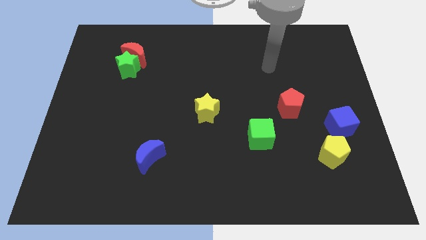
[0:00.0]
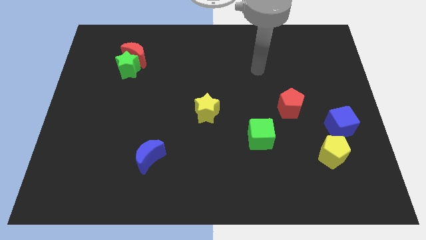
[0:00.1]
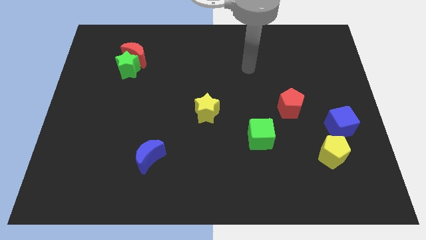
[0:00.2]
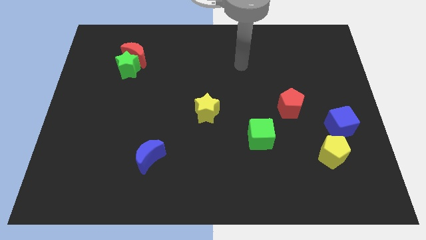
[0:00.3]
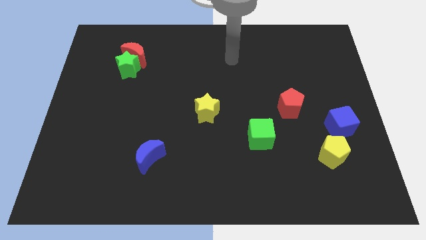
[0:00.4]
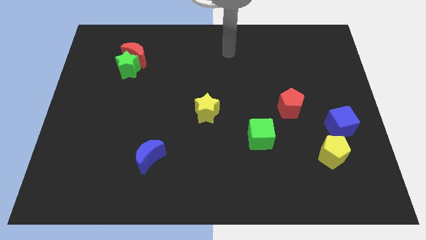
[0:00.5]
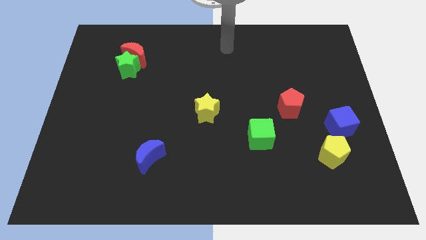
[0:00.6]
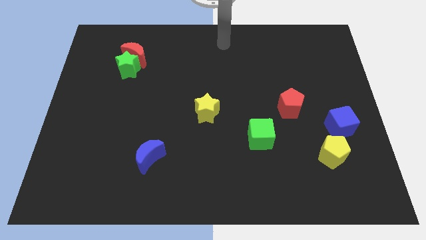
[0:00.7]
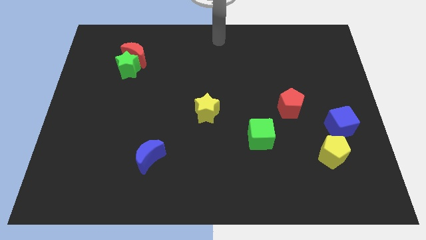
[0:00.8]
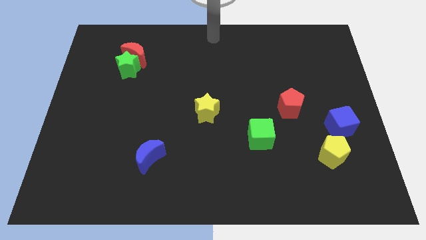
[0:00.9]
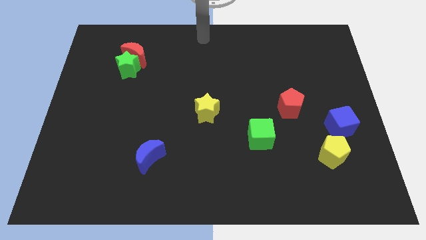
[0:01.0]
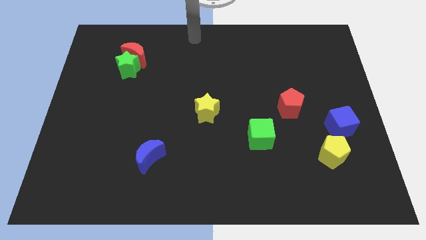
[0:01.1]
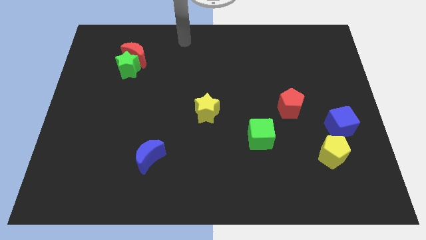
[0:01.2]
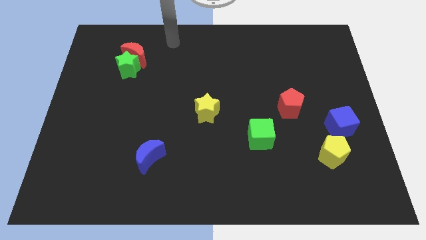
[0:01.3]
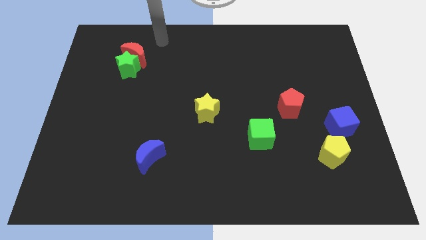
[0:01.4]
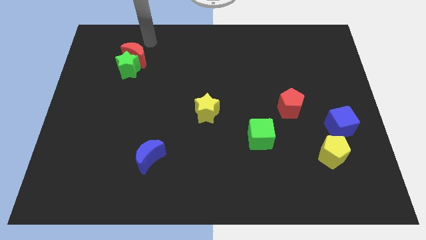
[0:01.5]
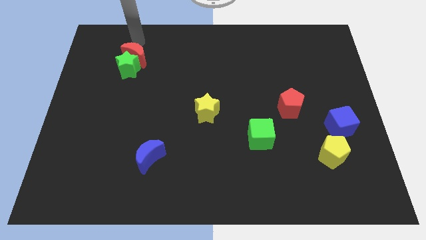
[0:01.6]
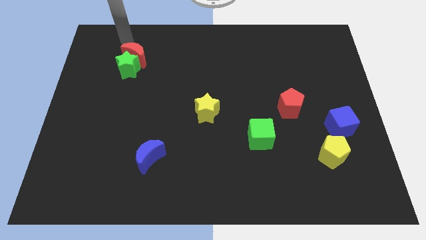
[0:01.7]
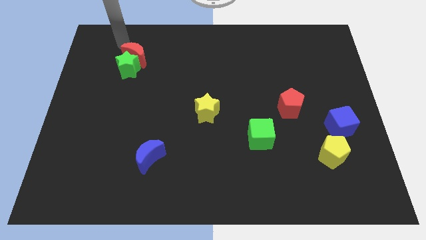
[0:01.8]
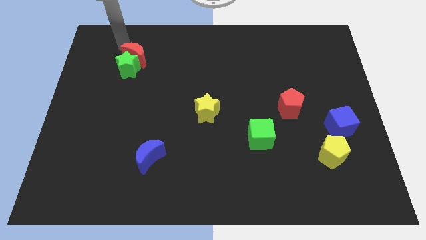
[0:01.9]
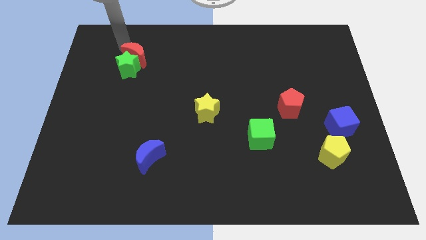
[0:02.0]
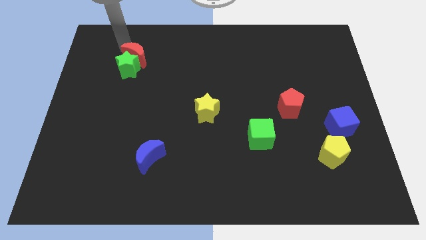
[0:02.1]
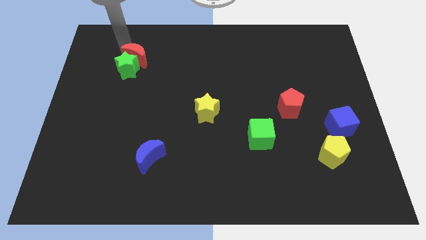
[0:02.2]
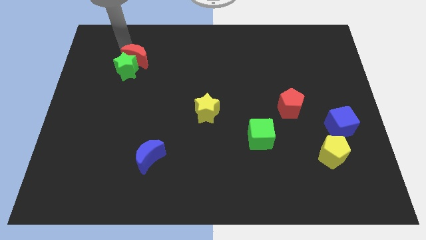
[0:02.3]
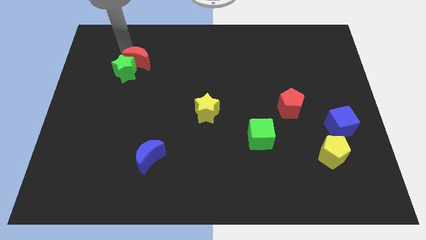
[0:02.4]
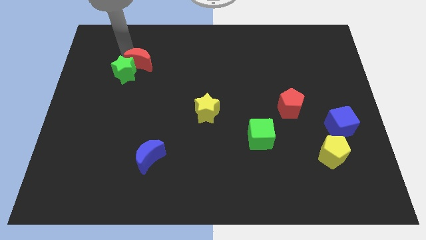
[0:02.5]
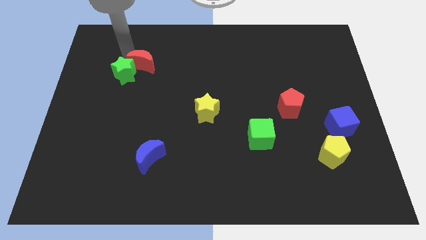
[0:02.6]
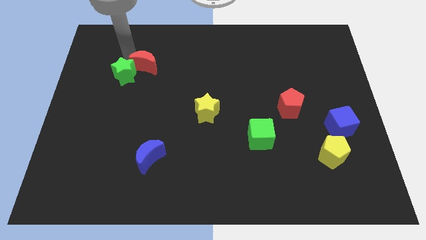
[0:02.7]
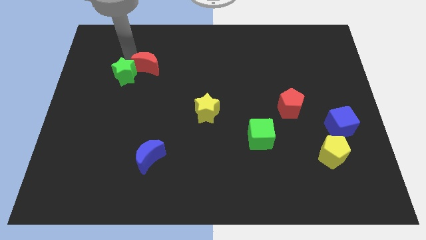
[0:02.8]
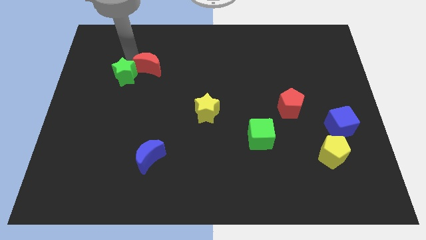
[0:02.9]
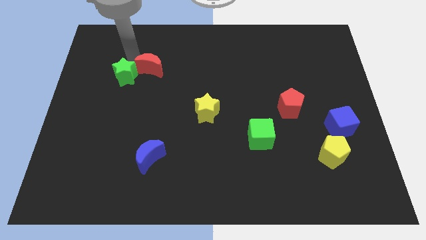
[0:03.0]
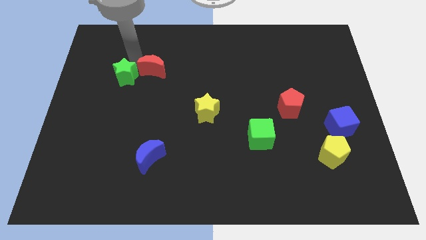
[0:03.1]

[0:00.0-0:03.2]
slide the red moon down and right diagonally a little

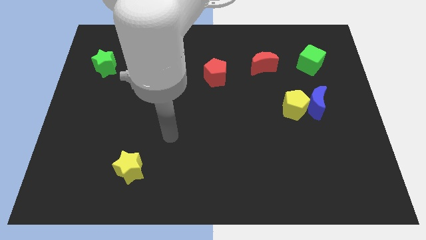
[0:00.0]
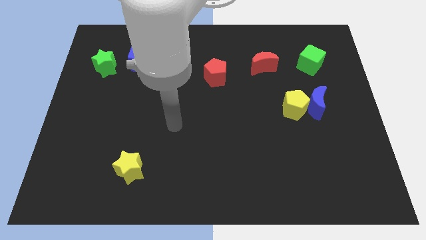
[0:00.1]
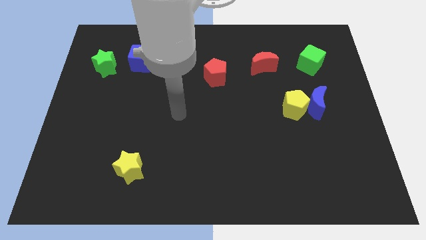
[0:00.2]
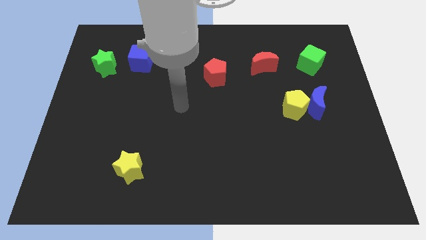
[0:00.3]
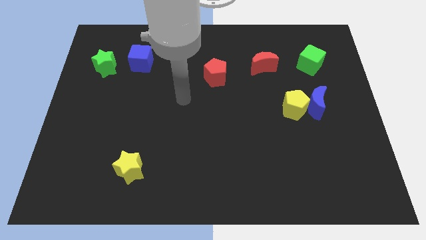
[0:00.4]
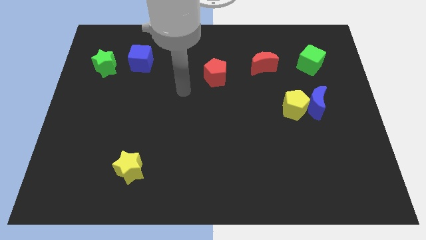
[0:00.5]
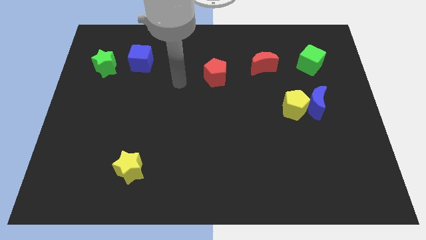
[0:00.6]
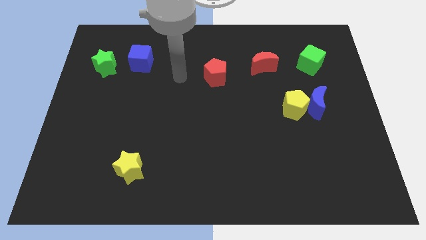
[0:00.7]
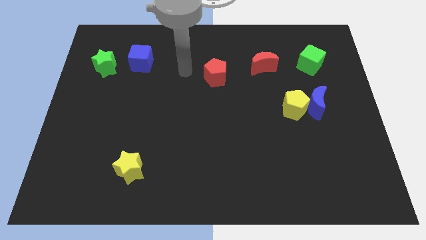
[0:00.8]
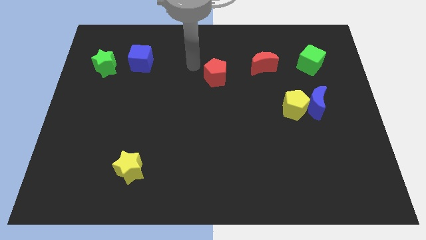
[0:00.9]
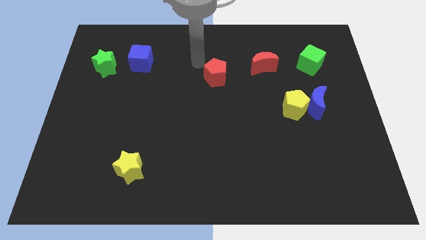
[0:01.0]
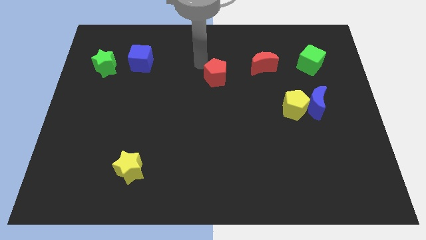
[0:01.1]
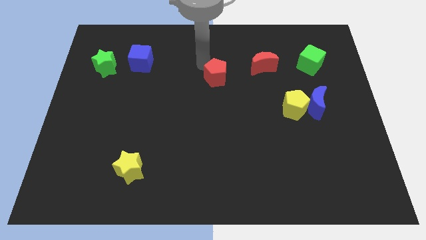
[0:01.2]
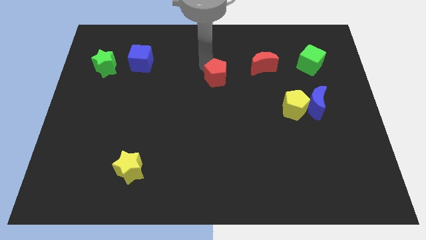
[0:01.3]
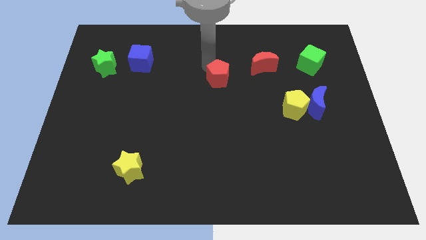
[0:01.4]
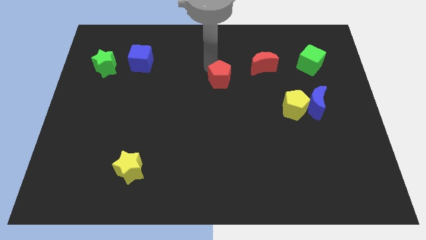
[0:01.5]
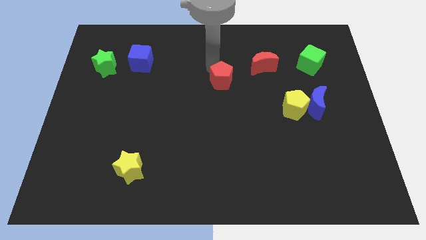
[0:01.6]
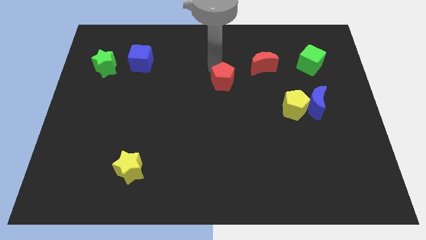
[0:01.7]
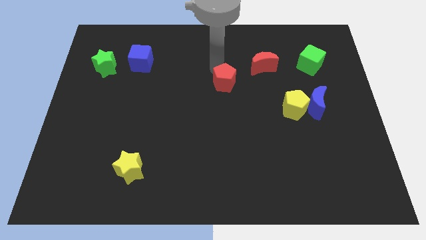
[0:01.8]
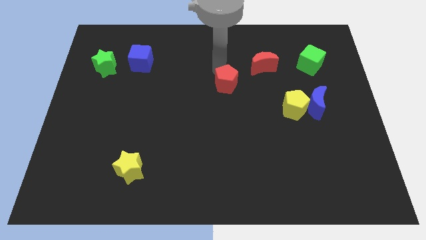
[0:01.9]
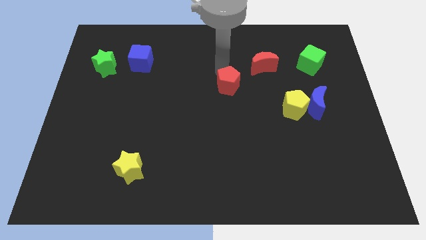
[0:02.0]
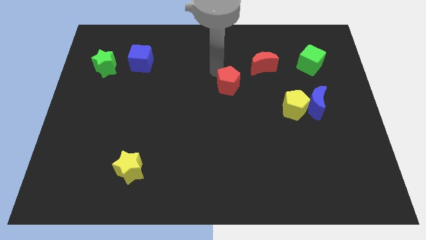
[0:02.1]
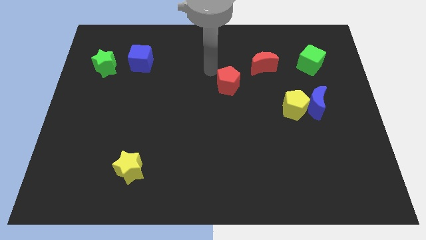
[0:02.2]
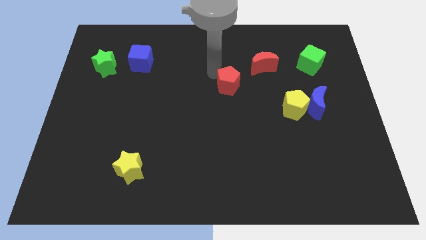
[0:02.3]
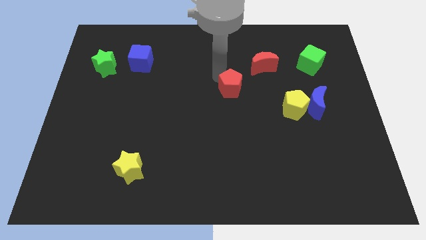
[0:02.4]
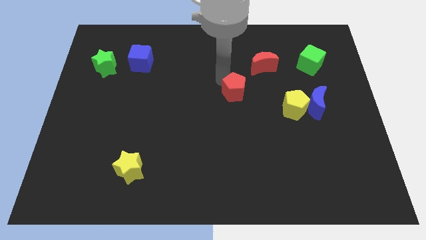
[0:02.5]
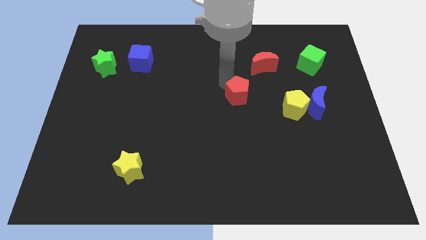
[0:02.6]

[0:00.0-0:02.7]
push the red pentagon down and right diagonally a bit

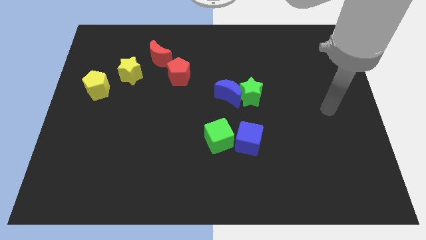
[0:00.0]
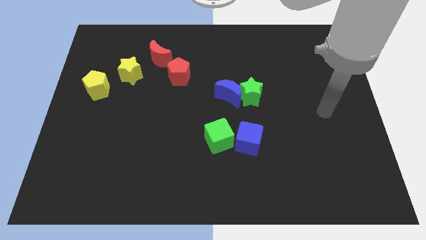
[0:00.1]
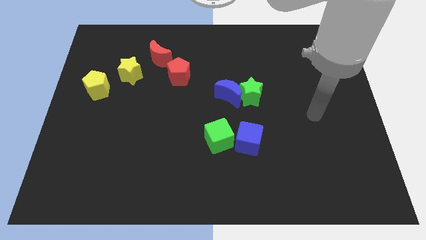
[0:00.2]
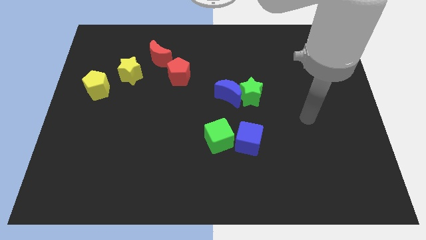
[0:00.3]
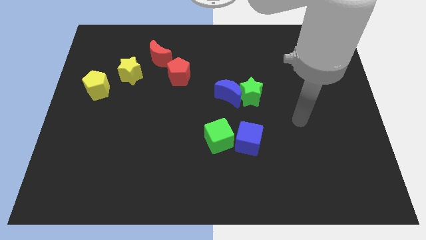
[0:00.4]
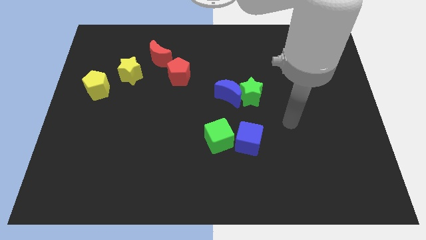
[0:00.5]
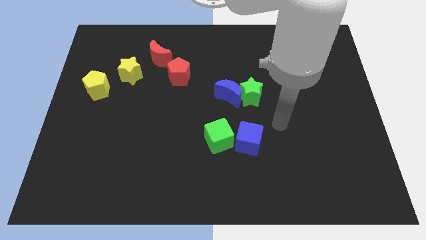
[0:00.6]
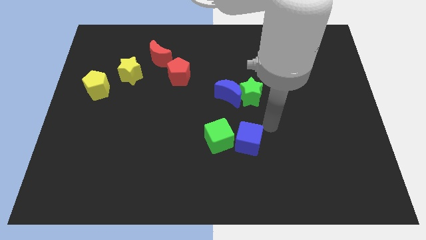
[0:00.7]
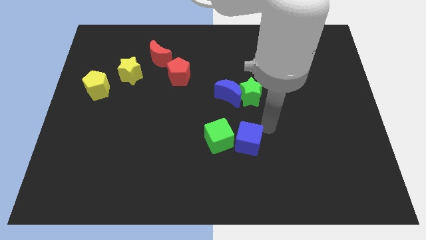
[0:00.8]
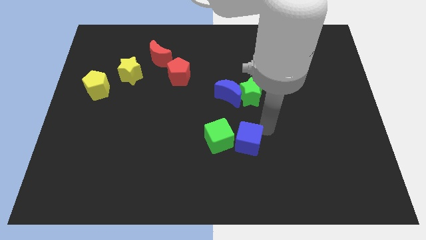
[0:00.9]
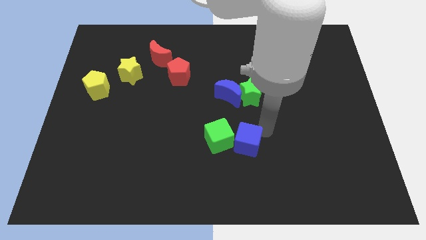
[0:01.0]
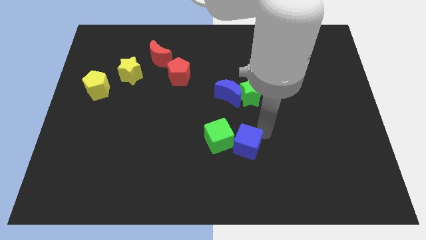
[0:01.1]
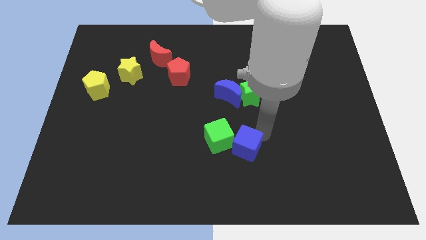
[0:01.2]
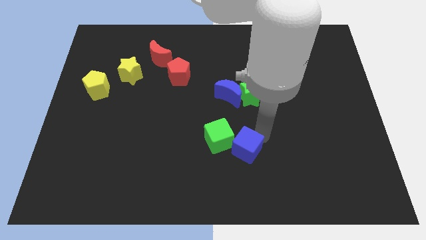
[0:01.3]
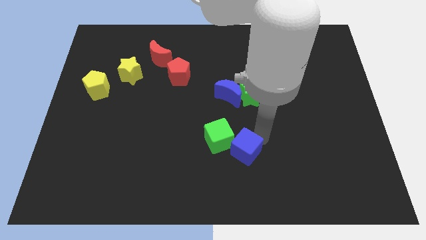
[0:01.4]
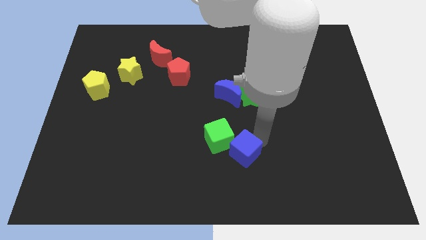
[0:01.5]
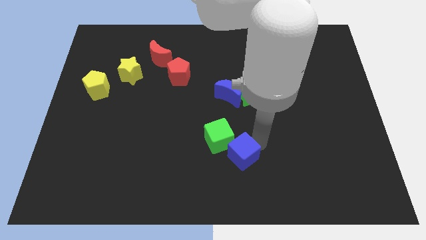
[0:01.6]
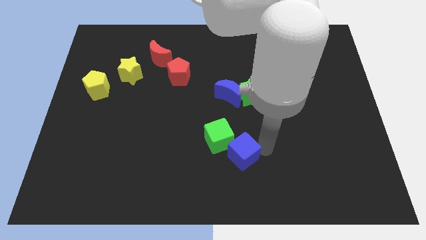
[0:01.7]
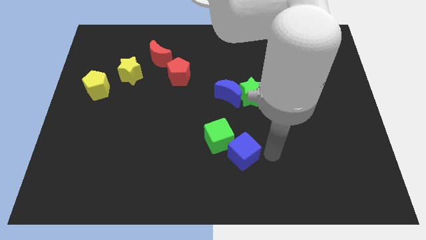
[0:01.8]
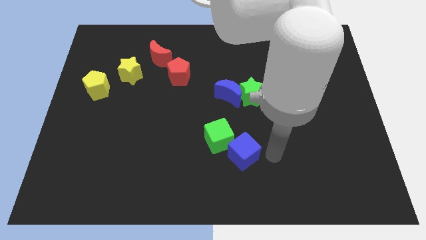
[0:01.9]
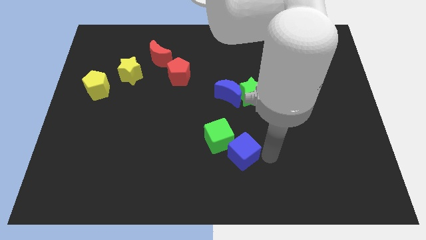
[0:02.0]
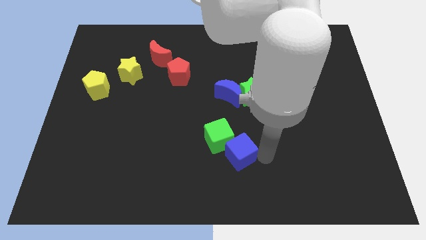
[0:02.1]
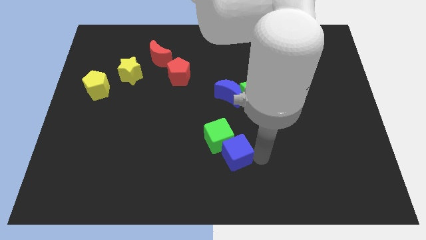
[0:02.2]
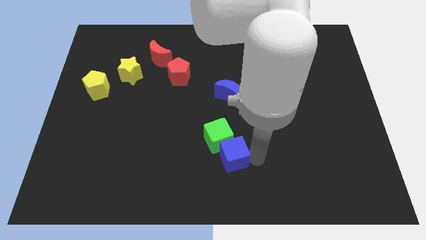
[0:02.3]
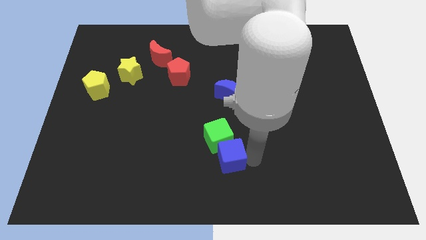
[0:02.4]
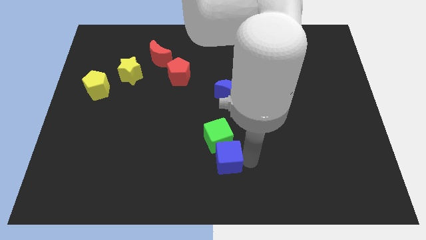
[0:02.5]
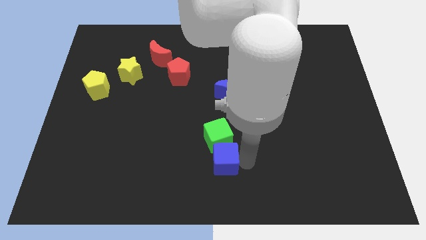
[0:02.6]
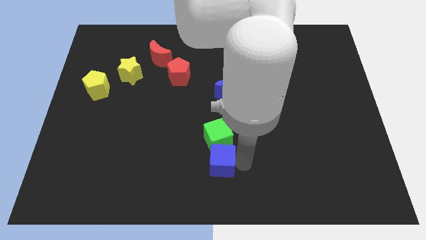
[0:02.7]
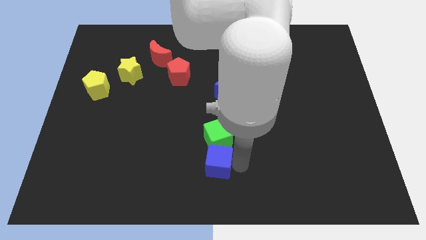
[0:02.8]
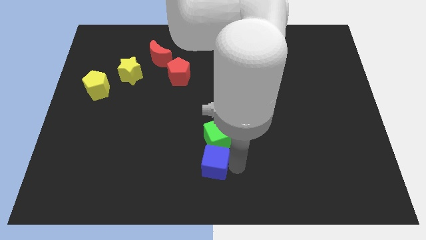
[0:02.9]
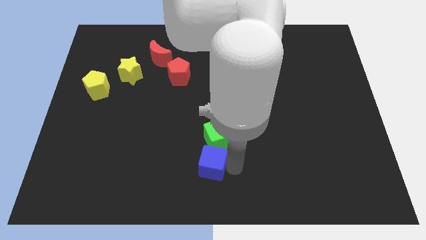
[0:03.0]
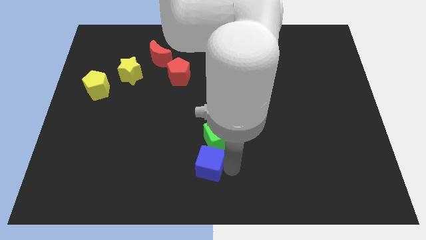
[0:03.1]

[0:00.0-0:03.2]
move the blue cube a little bit left
